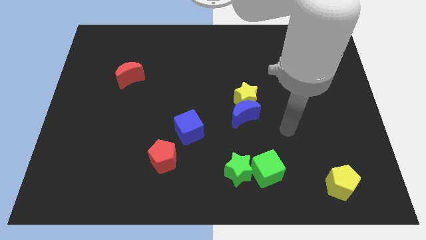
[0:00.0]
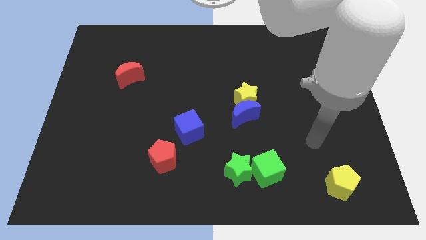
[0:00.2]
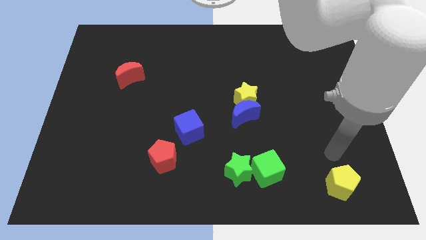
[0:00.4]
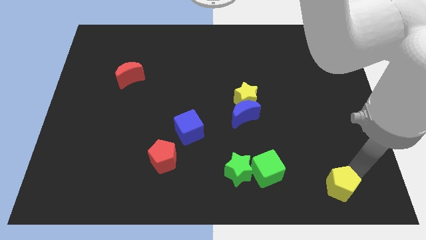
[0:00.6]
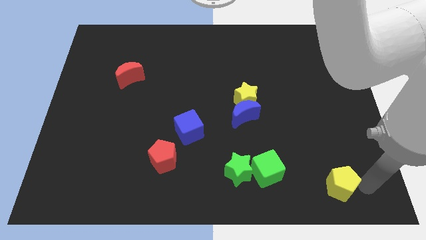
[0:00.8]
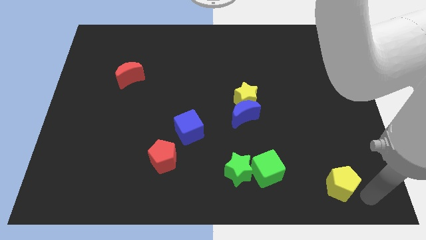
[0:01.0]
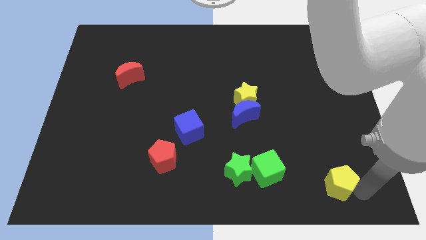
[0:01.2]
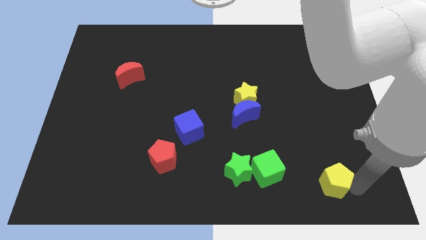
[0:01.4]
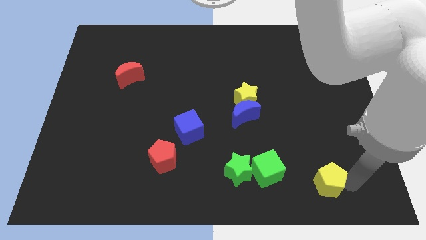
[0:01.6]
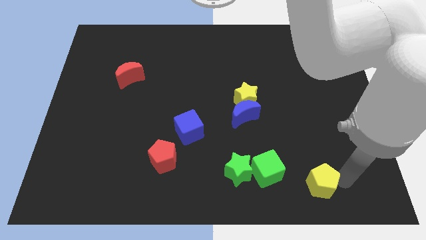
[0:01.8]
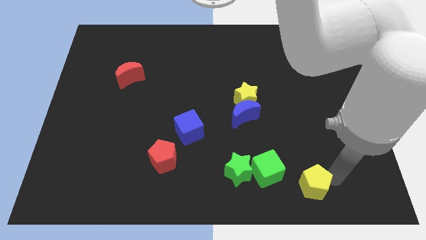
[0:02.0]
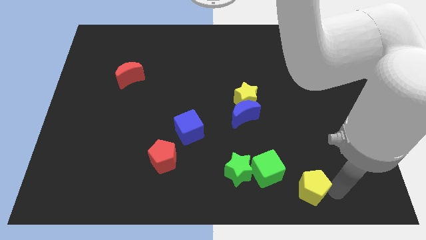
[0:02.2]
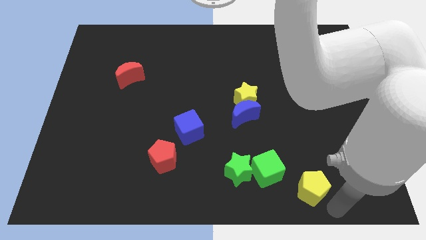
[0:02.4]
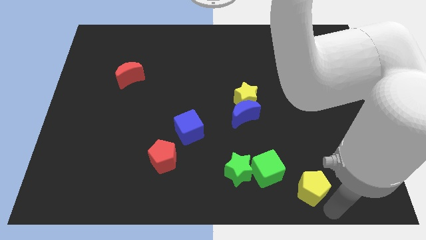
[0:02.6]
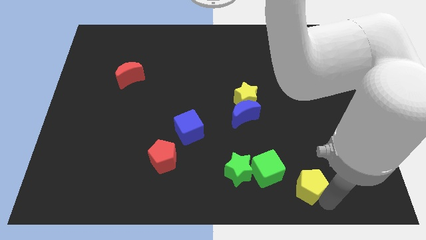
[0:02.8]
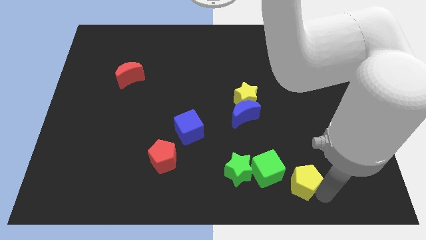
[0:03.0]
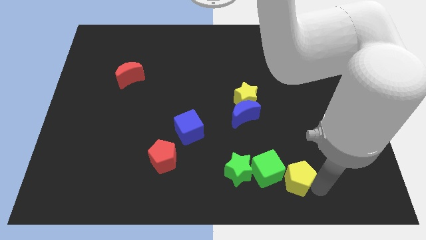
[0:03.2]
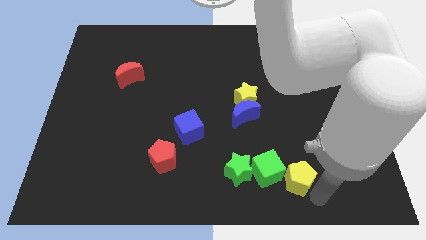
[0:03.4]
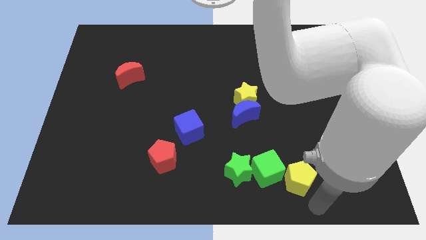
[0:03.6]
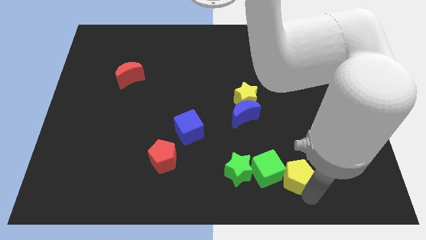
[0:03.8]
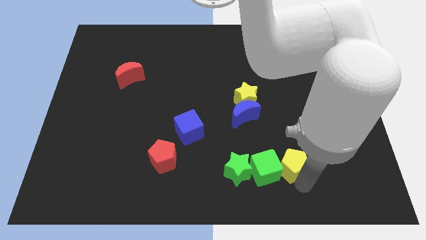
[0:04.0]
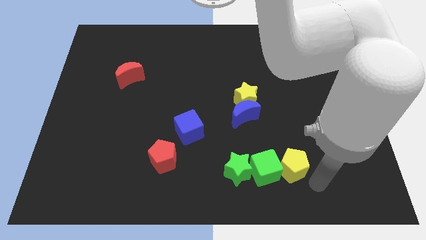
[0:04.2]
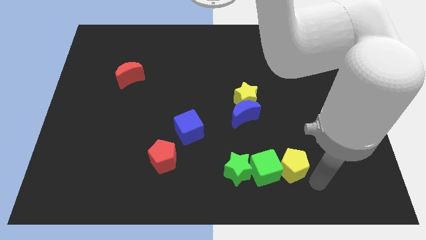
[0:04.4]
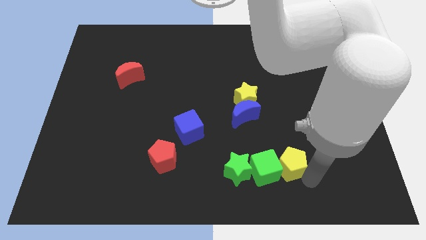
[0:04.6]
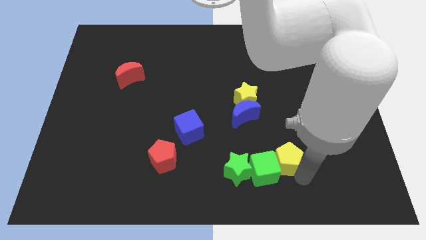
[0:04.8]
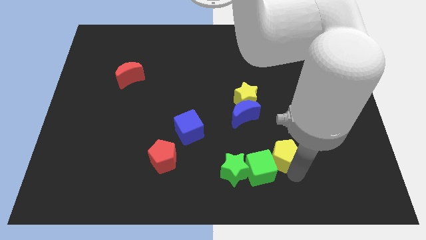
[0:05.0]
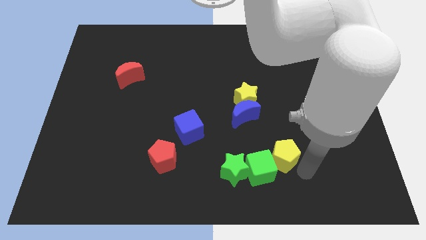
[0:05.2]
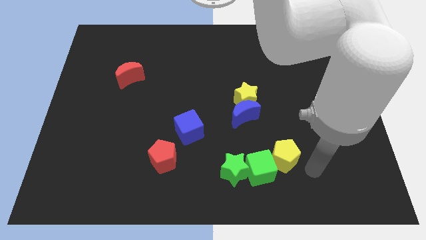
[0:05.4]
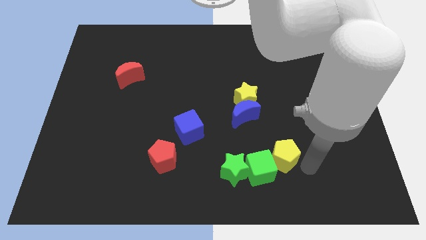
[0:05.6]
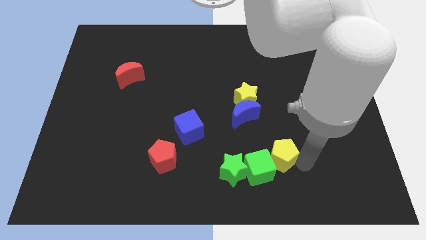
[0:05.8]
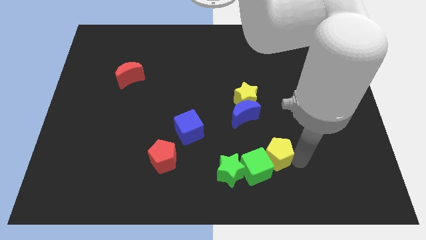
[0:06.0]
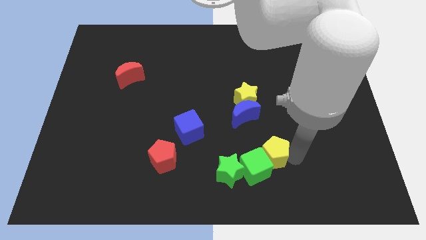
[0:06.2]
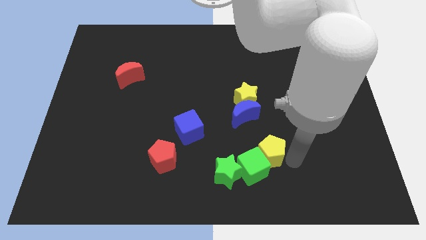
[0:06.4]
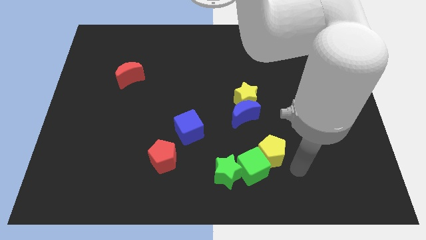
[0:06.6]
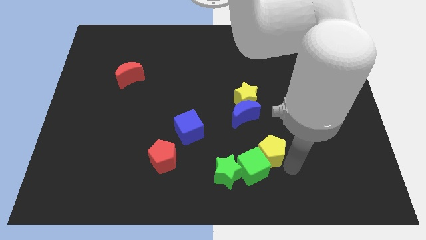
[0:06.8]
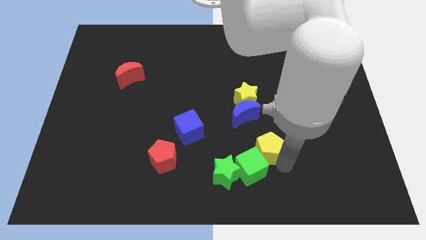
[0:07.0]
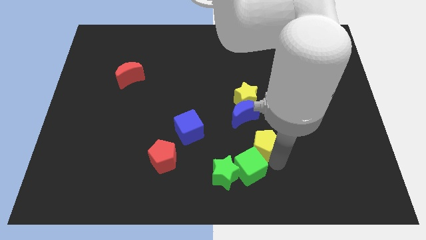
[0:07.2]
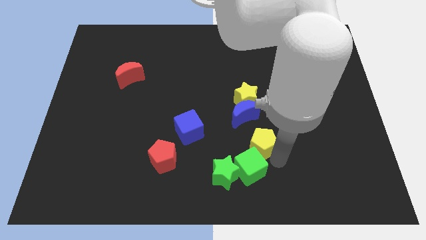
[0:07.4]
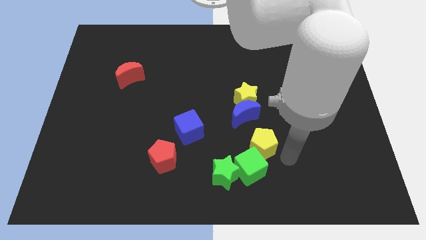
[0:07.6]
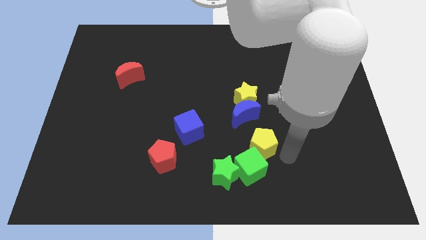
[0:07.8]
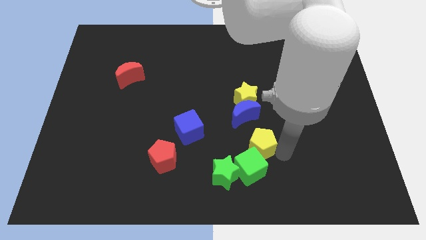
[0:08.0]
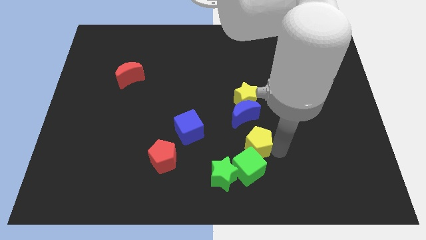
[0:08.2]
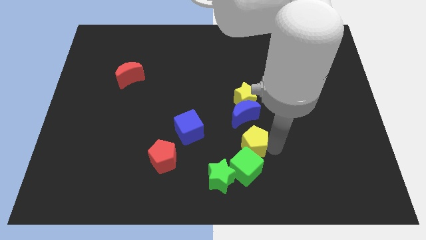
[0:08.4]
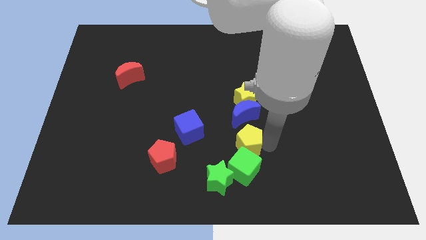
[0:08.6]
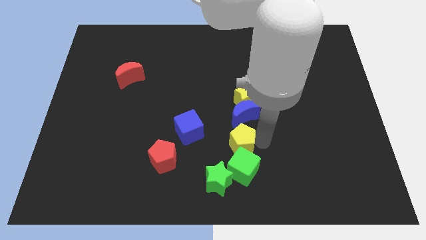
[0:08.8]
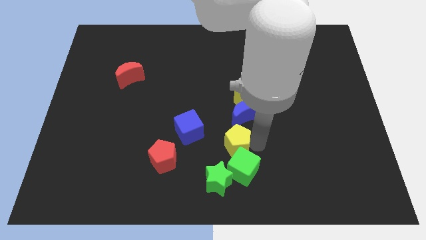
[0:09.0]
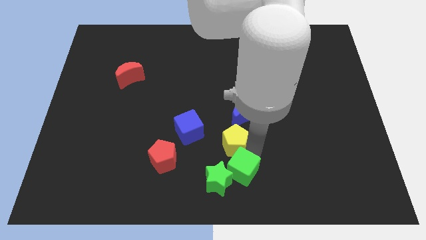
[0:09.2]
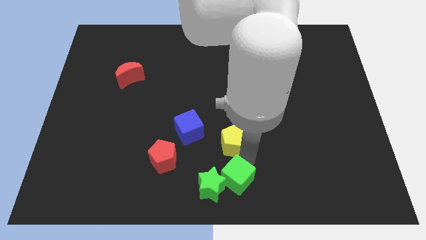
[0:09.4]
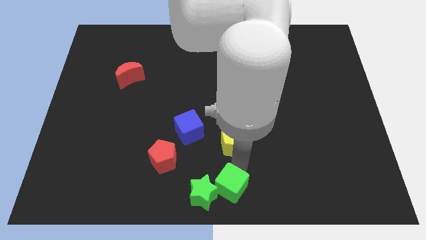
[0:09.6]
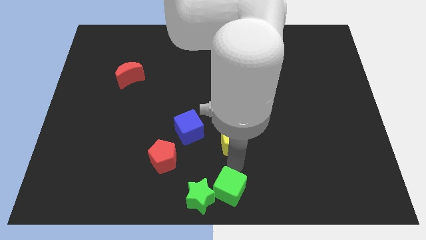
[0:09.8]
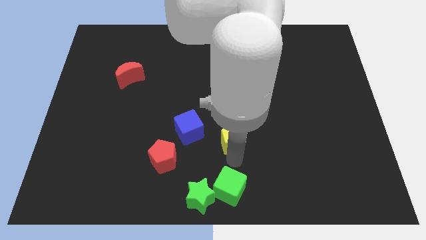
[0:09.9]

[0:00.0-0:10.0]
put the yellow pentagon to the center

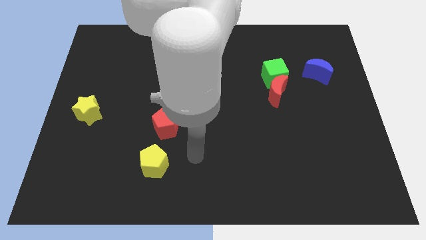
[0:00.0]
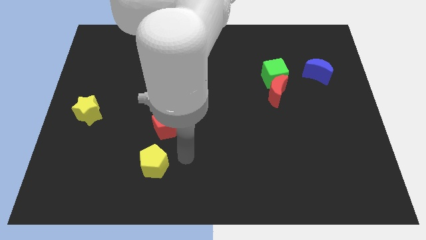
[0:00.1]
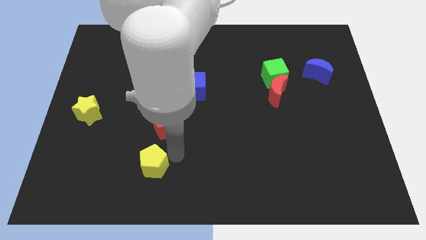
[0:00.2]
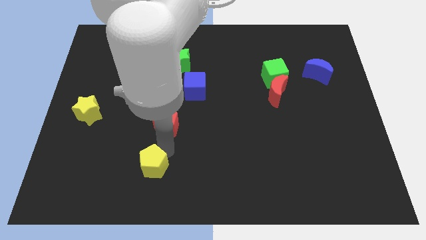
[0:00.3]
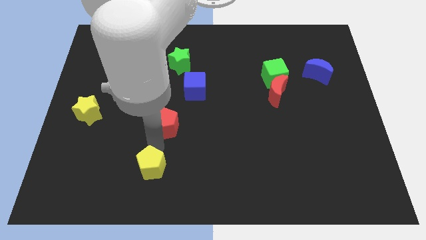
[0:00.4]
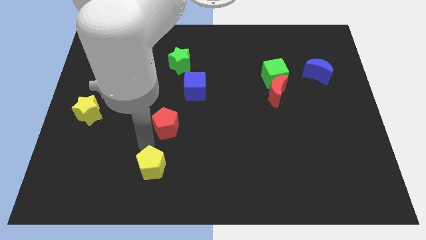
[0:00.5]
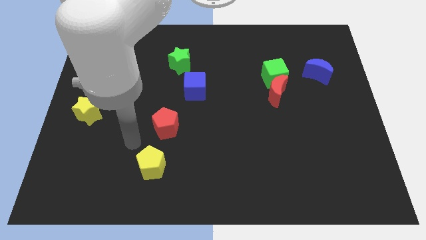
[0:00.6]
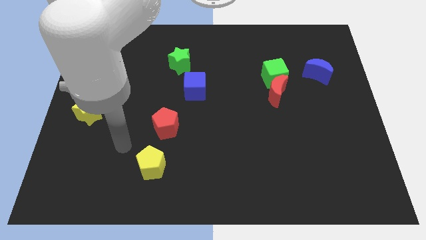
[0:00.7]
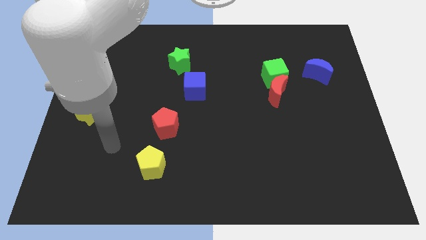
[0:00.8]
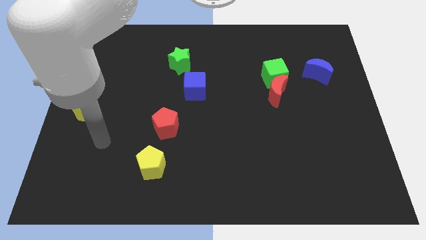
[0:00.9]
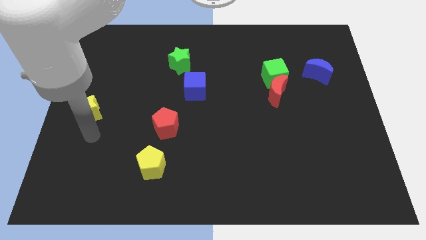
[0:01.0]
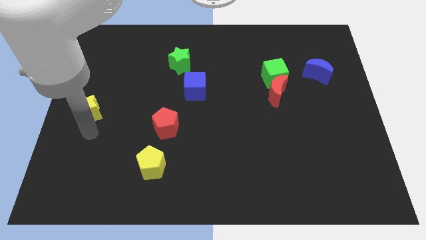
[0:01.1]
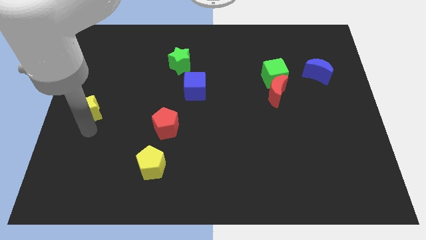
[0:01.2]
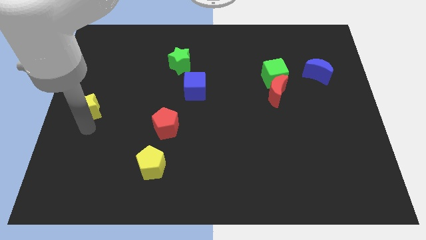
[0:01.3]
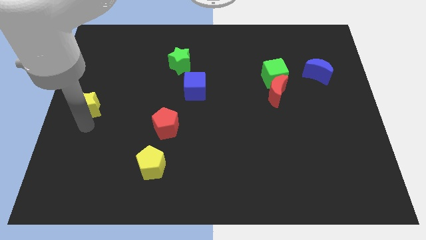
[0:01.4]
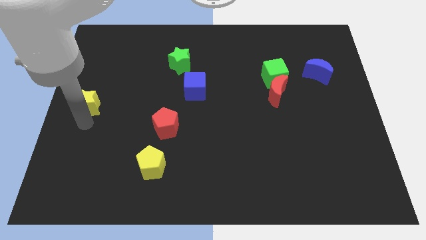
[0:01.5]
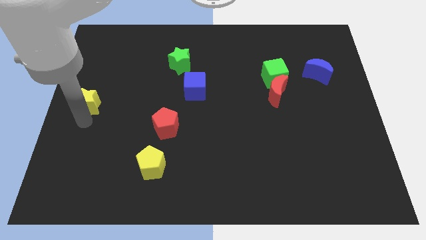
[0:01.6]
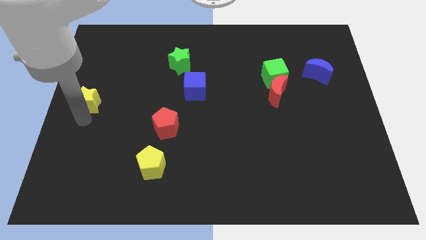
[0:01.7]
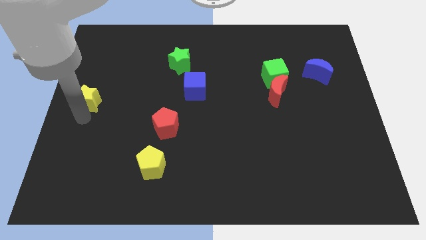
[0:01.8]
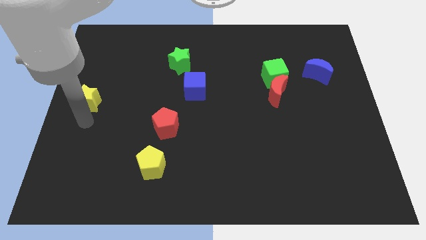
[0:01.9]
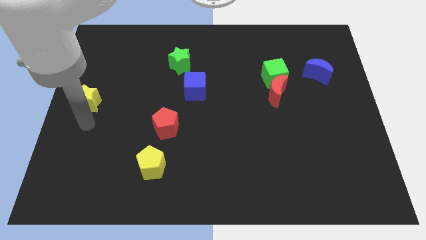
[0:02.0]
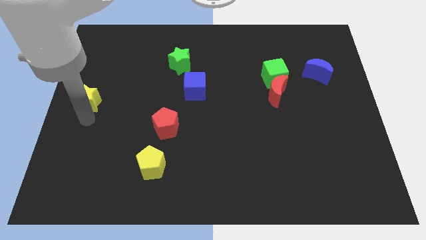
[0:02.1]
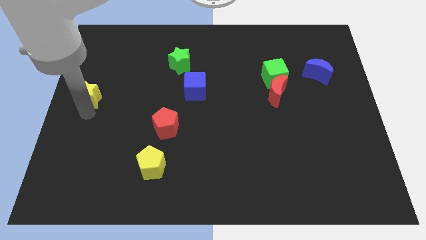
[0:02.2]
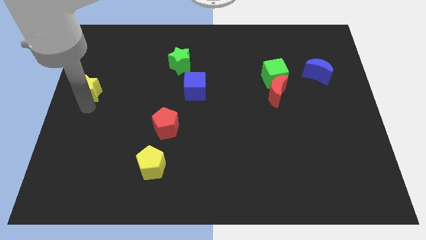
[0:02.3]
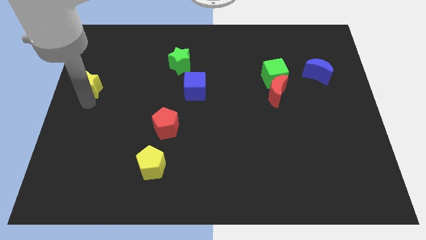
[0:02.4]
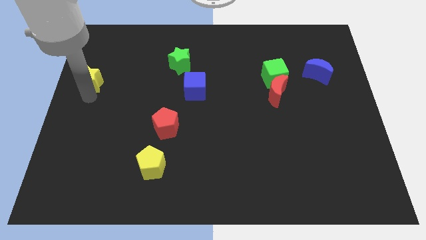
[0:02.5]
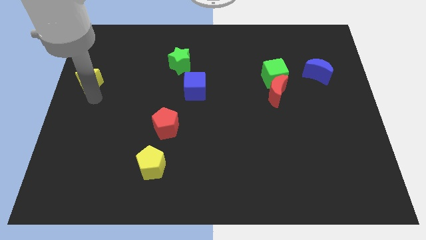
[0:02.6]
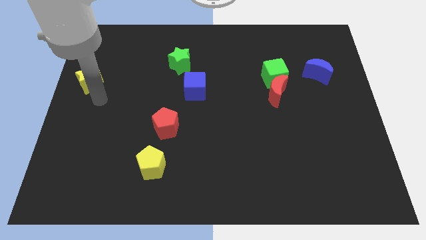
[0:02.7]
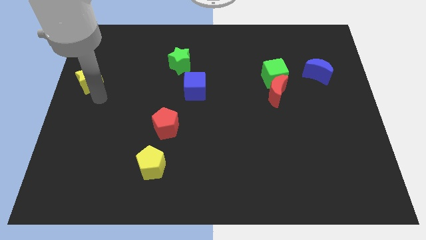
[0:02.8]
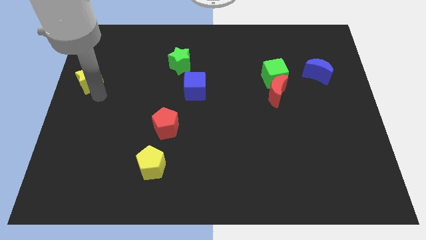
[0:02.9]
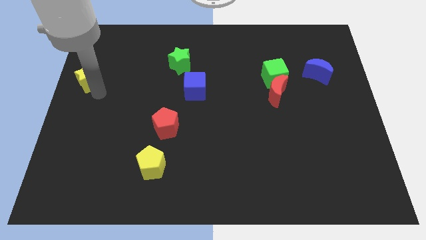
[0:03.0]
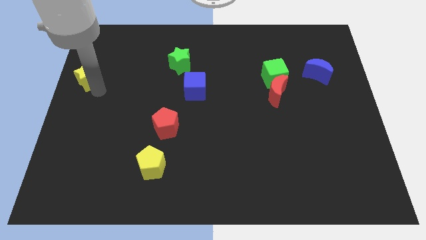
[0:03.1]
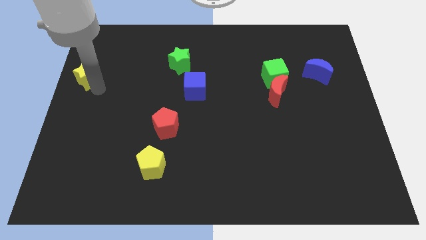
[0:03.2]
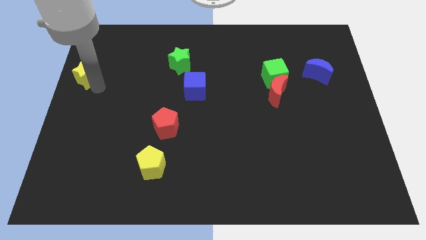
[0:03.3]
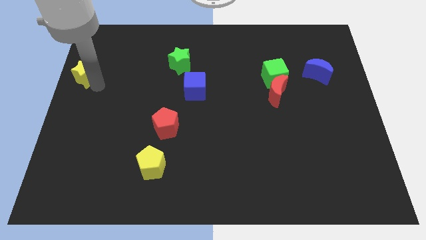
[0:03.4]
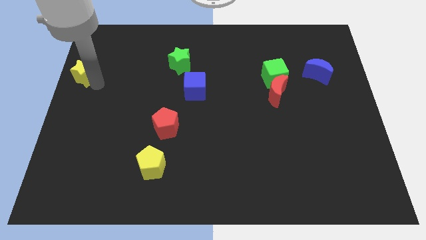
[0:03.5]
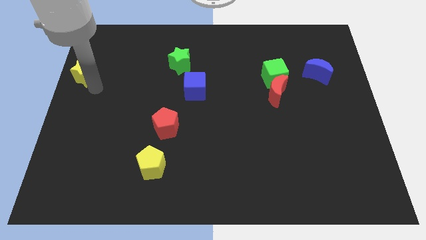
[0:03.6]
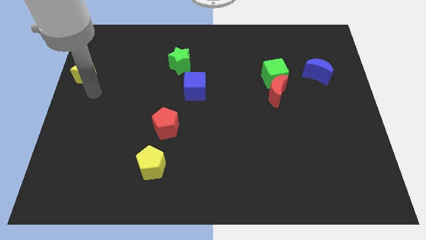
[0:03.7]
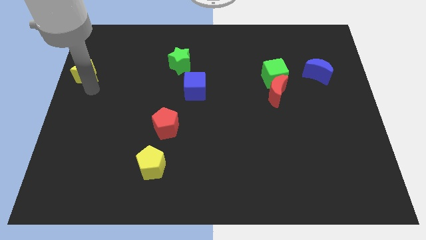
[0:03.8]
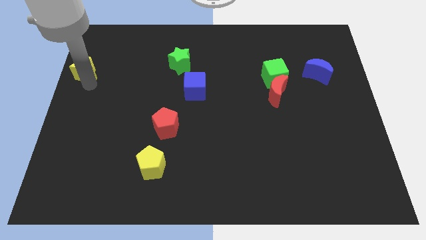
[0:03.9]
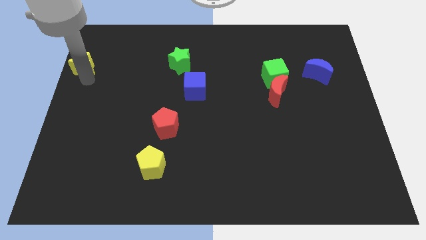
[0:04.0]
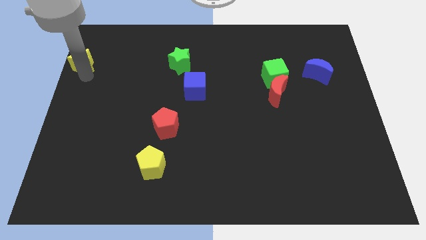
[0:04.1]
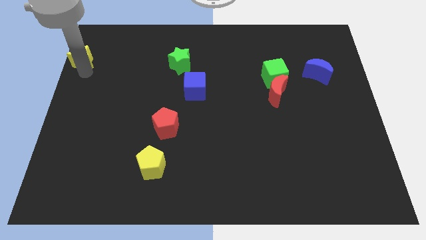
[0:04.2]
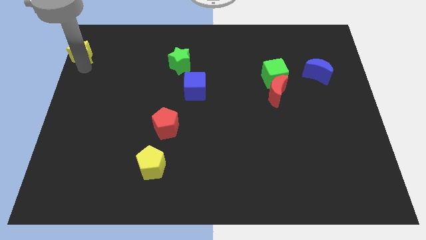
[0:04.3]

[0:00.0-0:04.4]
move the yellow star to the top left corner
